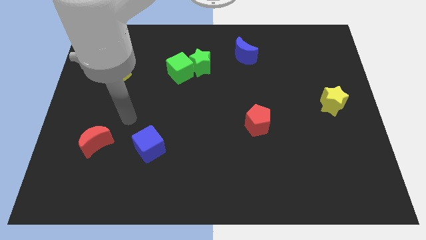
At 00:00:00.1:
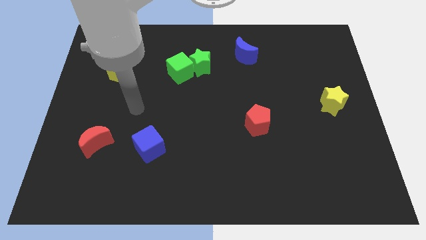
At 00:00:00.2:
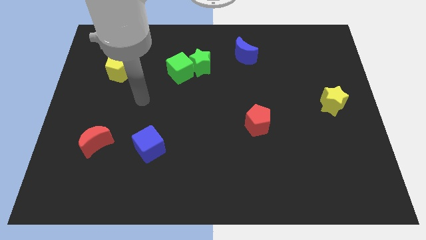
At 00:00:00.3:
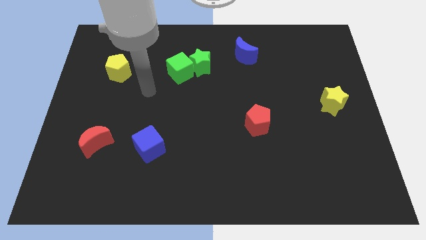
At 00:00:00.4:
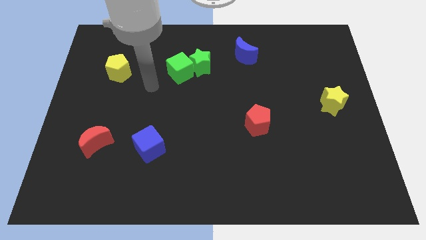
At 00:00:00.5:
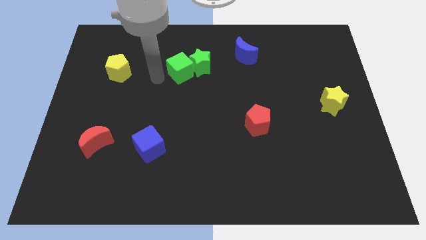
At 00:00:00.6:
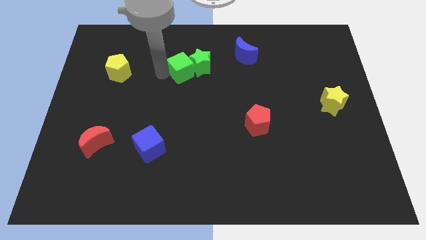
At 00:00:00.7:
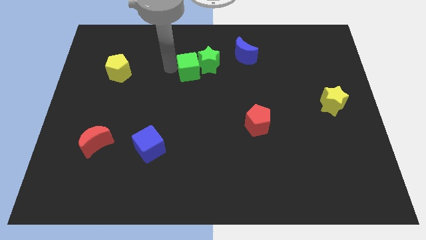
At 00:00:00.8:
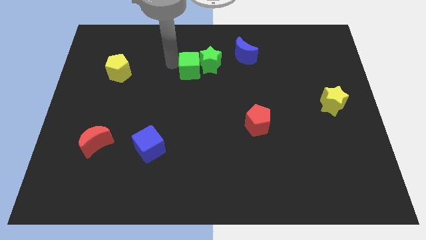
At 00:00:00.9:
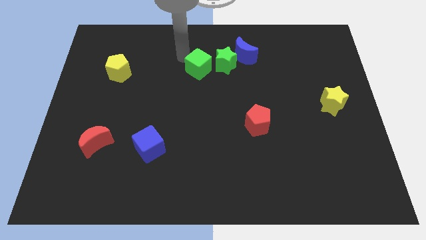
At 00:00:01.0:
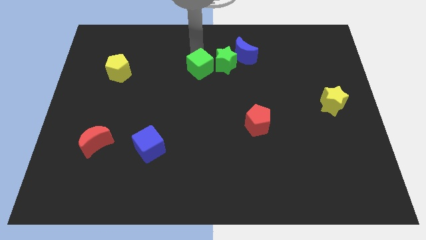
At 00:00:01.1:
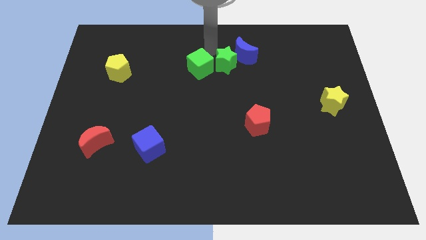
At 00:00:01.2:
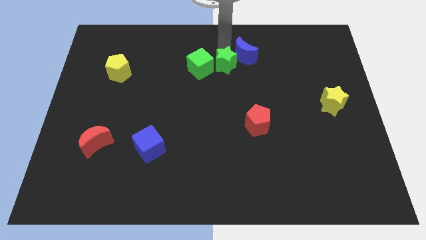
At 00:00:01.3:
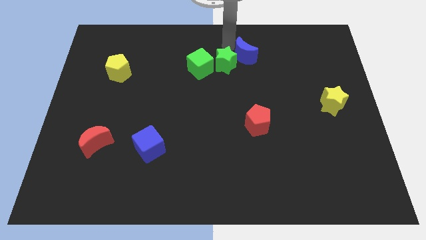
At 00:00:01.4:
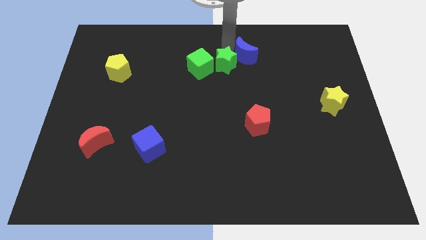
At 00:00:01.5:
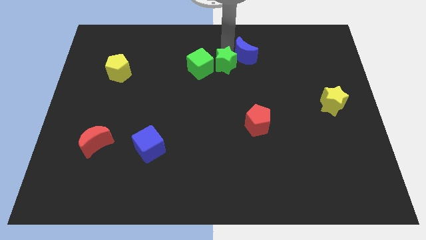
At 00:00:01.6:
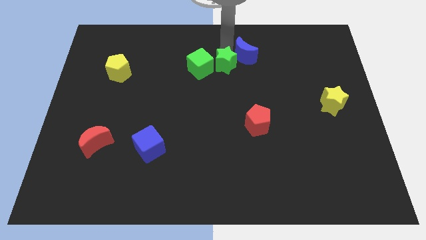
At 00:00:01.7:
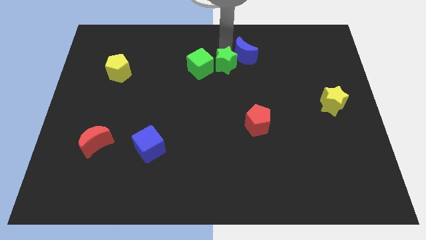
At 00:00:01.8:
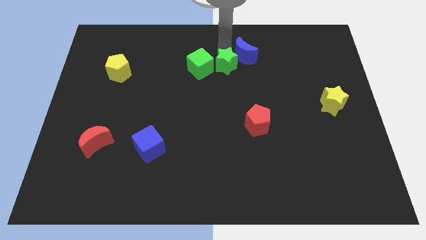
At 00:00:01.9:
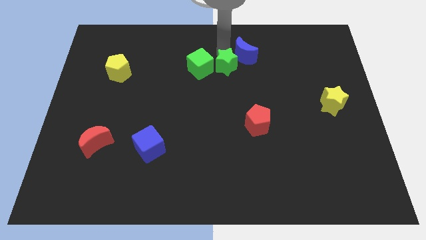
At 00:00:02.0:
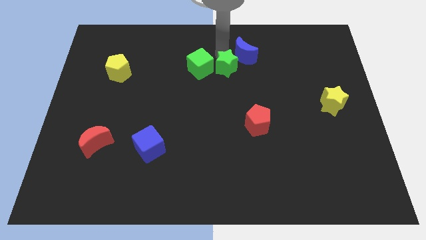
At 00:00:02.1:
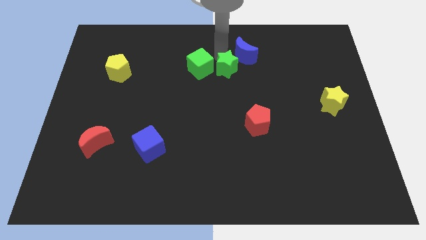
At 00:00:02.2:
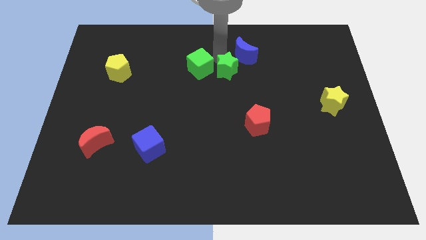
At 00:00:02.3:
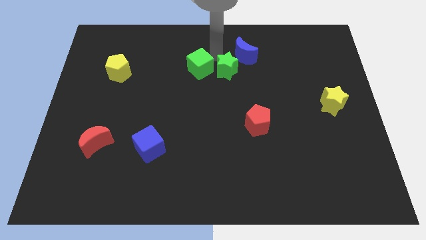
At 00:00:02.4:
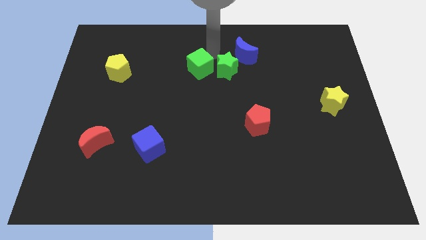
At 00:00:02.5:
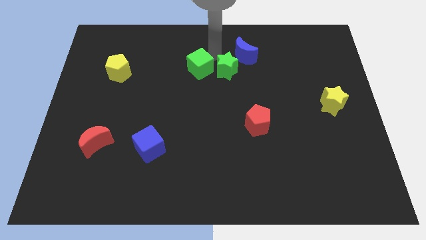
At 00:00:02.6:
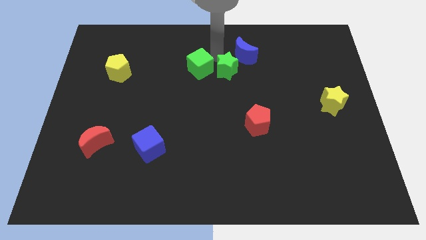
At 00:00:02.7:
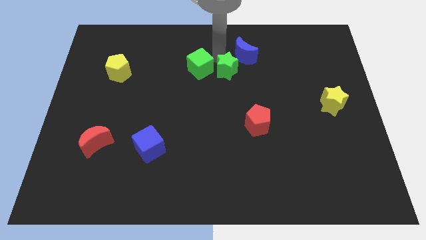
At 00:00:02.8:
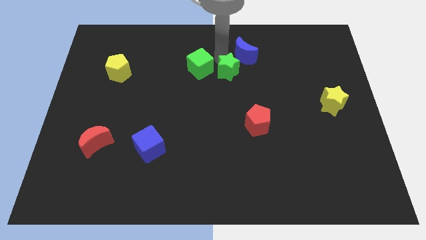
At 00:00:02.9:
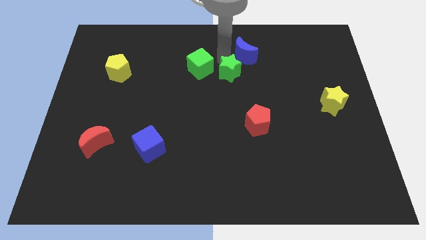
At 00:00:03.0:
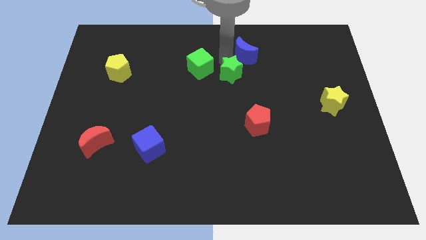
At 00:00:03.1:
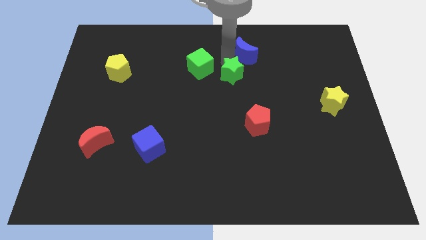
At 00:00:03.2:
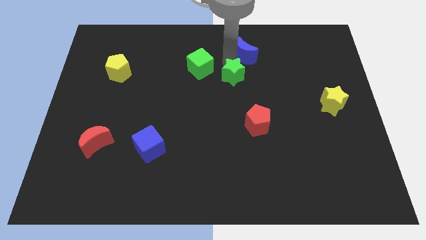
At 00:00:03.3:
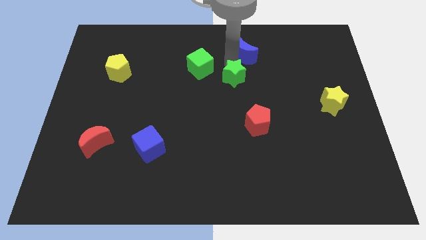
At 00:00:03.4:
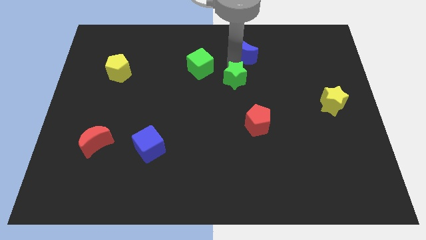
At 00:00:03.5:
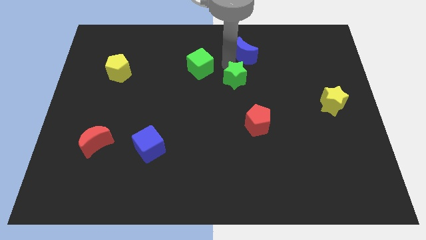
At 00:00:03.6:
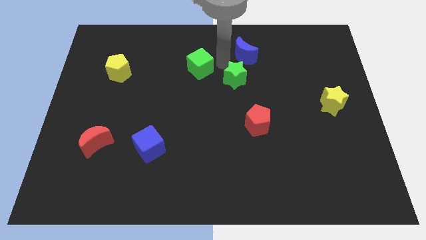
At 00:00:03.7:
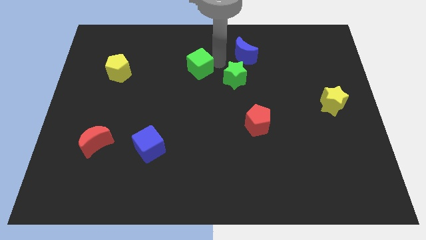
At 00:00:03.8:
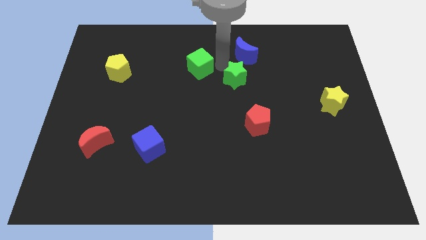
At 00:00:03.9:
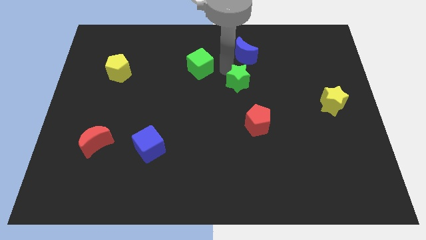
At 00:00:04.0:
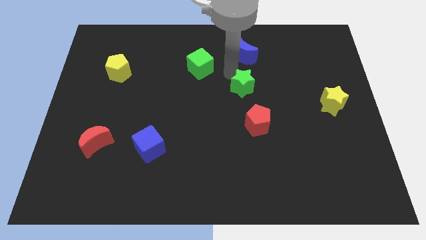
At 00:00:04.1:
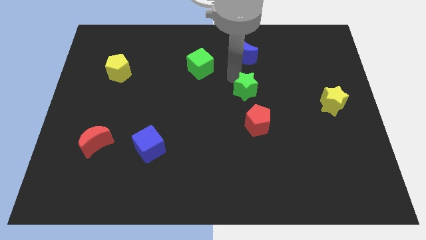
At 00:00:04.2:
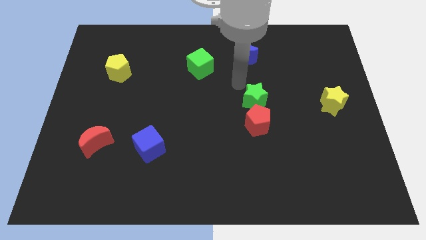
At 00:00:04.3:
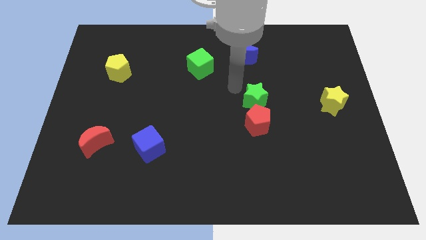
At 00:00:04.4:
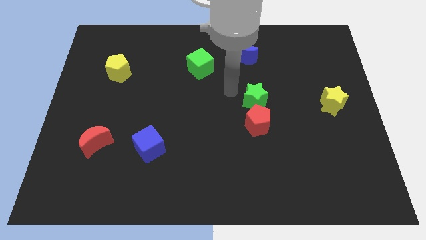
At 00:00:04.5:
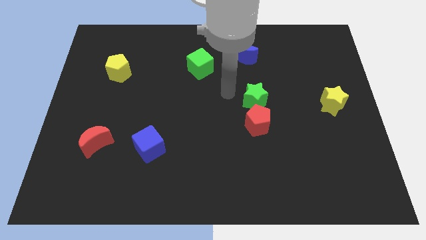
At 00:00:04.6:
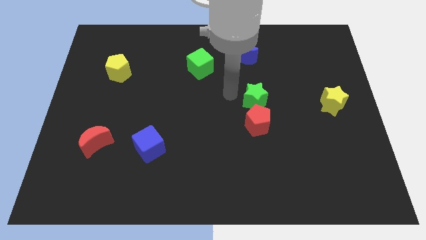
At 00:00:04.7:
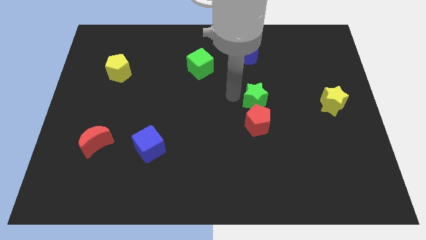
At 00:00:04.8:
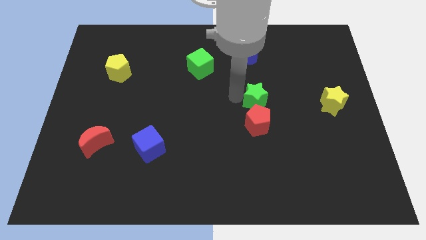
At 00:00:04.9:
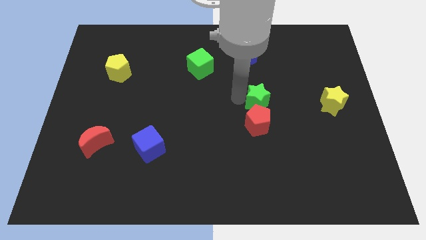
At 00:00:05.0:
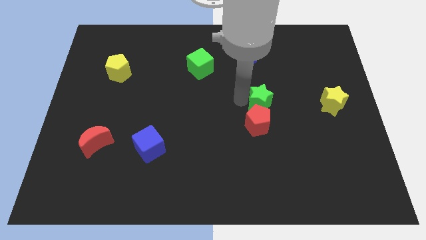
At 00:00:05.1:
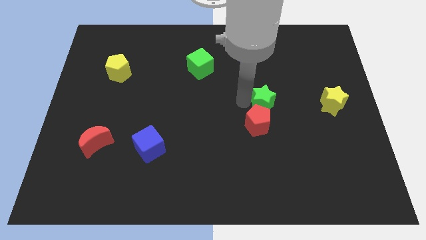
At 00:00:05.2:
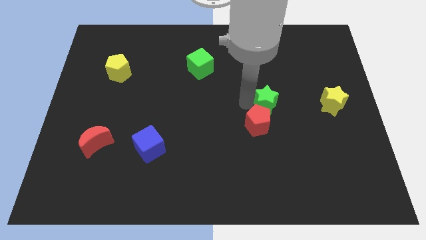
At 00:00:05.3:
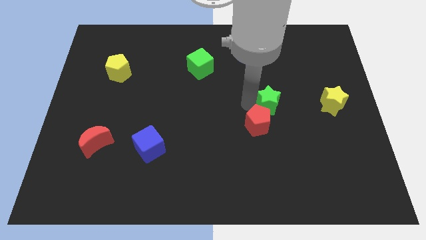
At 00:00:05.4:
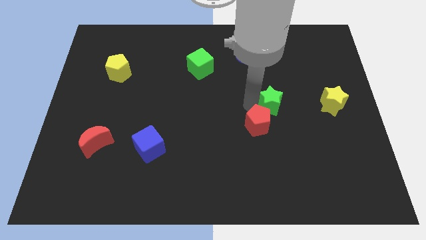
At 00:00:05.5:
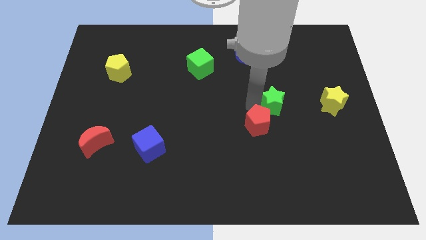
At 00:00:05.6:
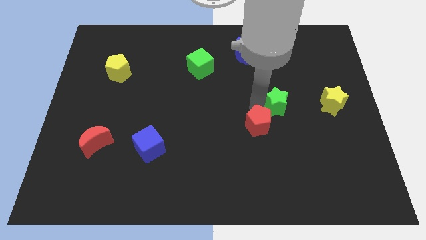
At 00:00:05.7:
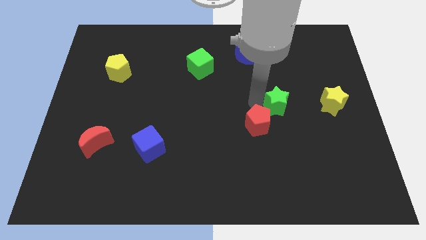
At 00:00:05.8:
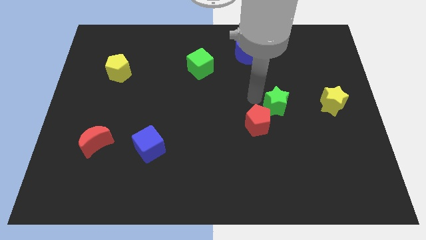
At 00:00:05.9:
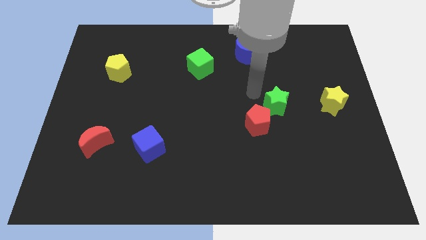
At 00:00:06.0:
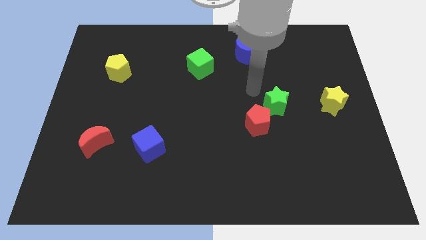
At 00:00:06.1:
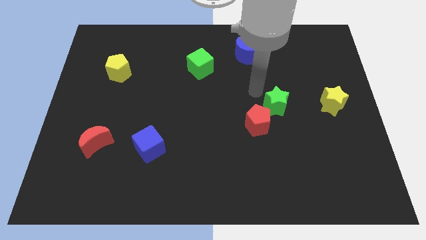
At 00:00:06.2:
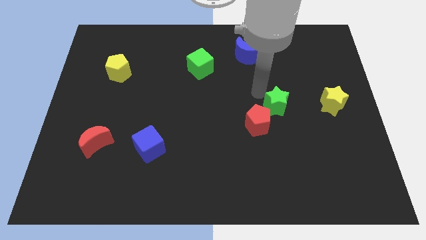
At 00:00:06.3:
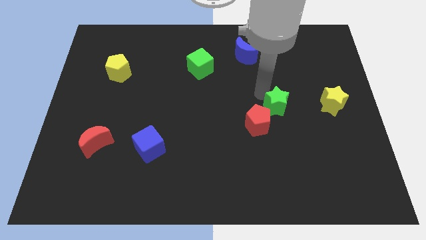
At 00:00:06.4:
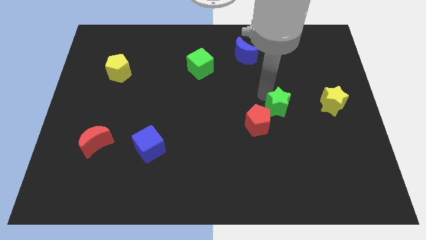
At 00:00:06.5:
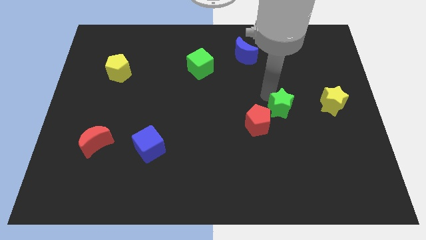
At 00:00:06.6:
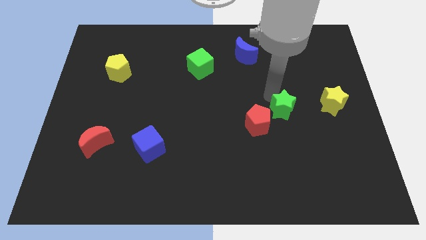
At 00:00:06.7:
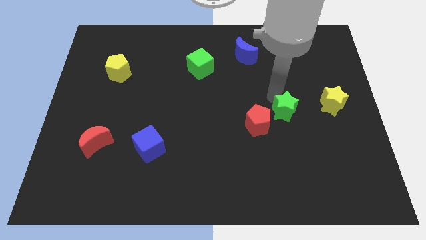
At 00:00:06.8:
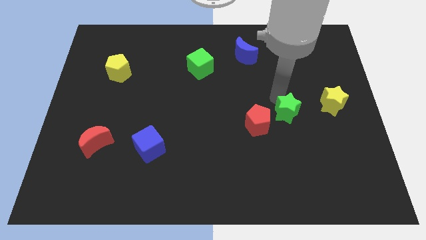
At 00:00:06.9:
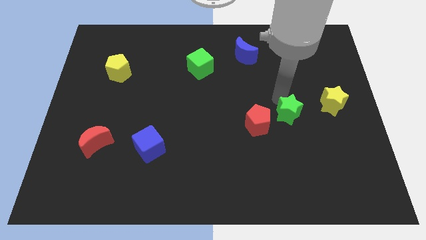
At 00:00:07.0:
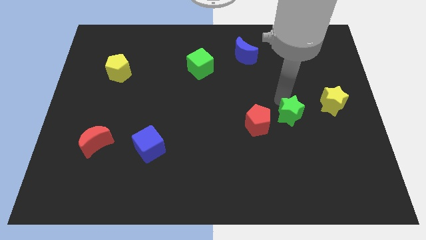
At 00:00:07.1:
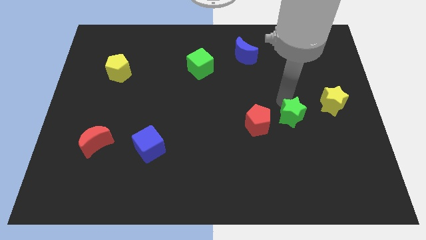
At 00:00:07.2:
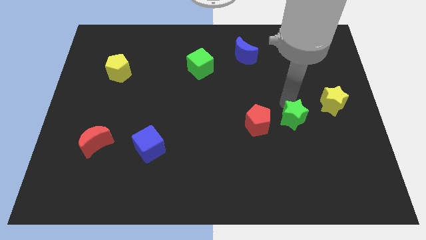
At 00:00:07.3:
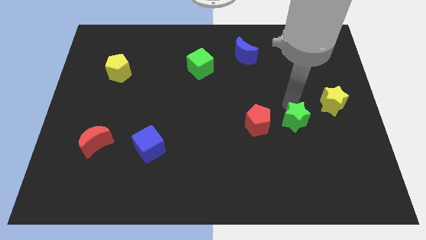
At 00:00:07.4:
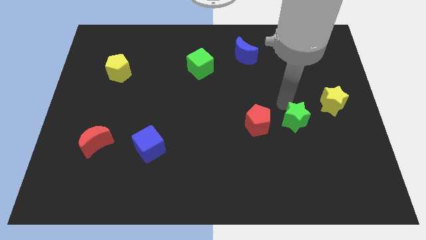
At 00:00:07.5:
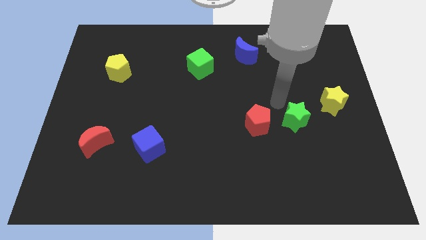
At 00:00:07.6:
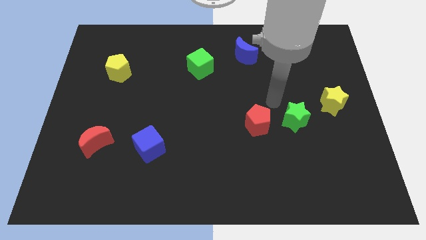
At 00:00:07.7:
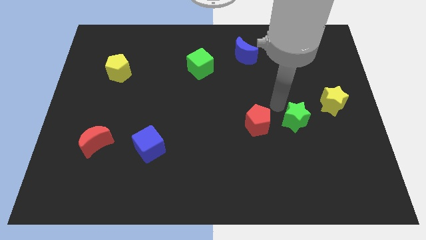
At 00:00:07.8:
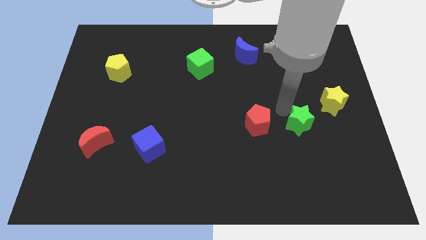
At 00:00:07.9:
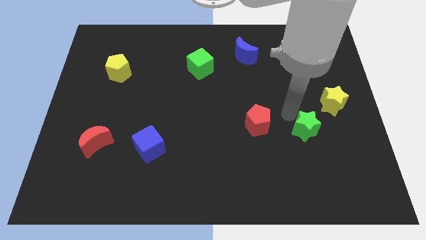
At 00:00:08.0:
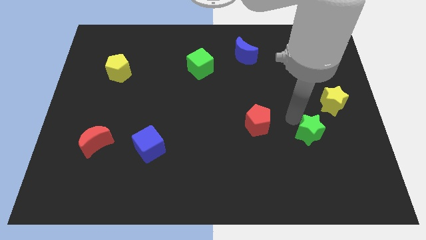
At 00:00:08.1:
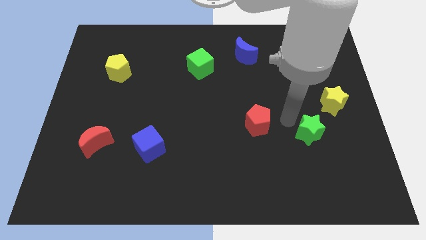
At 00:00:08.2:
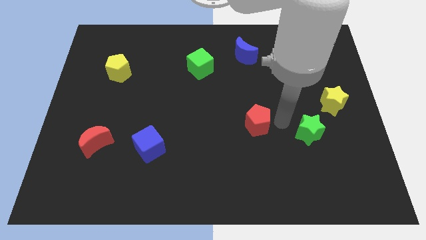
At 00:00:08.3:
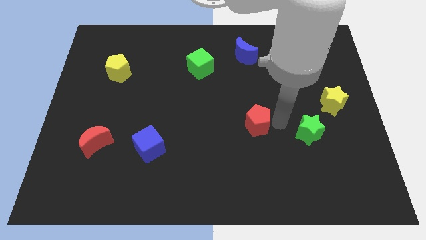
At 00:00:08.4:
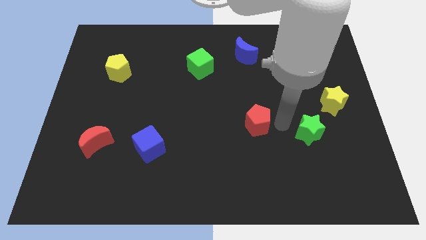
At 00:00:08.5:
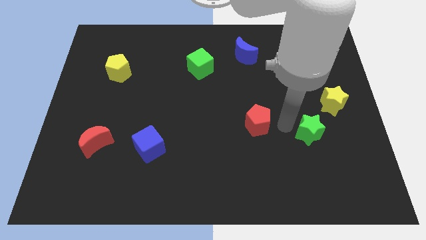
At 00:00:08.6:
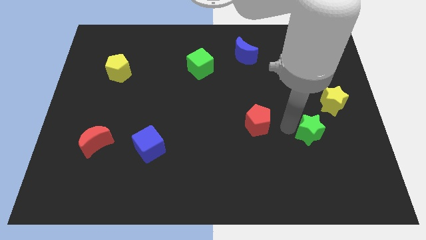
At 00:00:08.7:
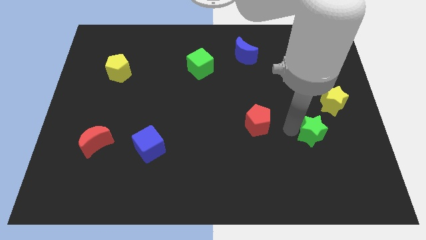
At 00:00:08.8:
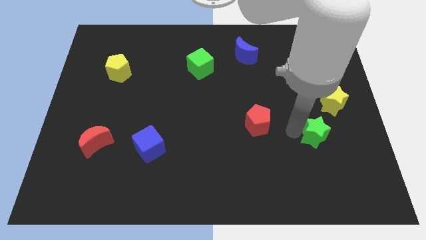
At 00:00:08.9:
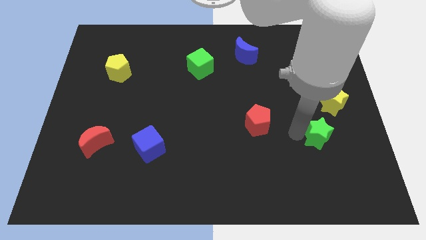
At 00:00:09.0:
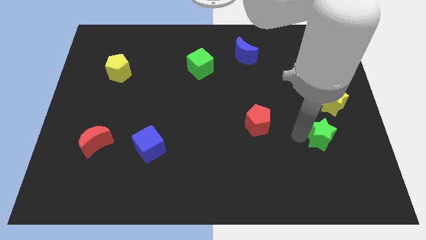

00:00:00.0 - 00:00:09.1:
move the green star to the bottom of the yellow star
